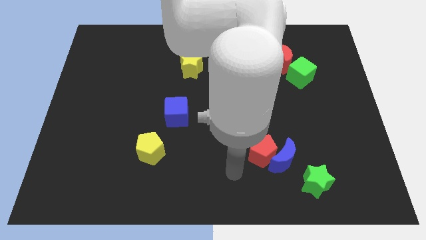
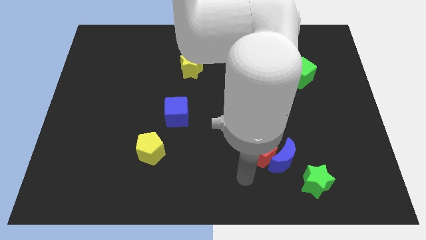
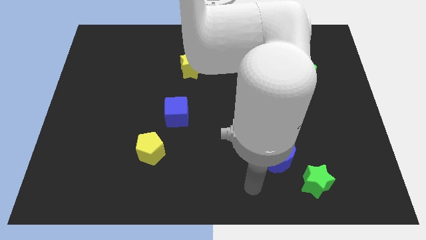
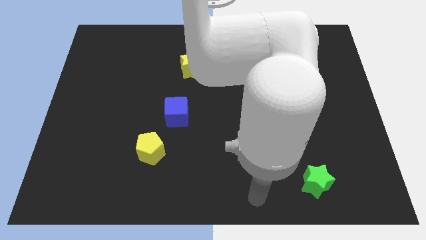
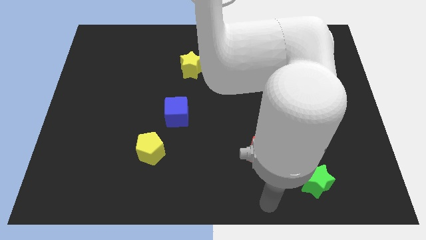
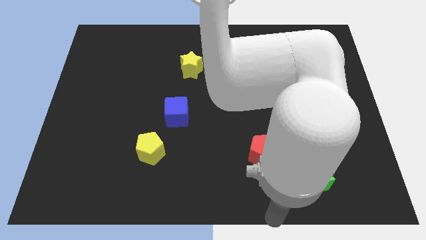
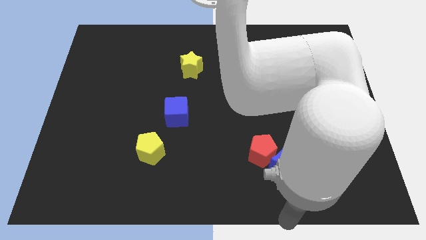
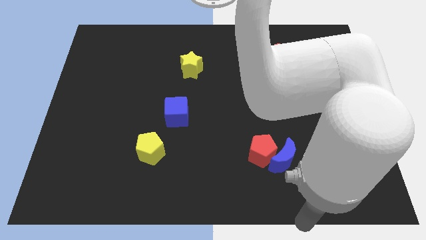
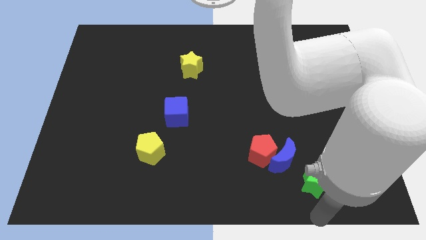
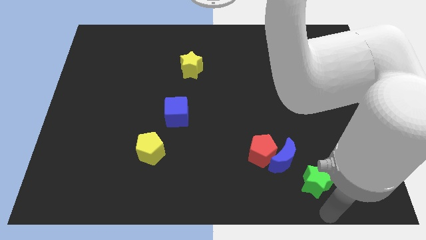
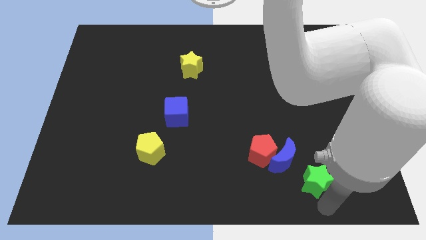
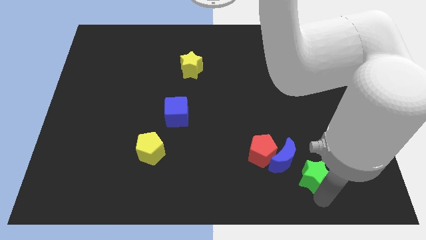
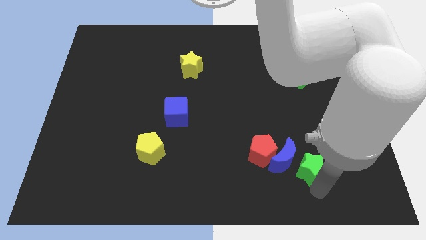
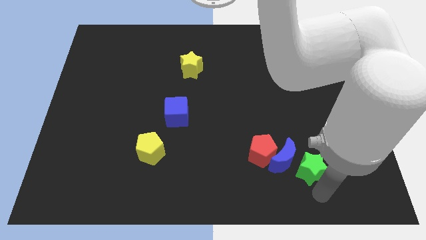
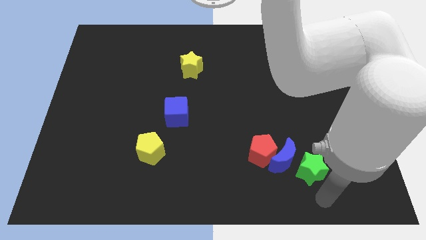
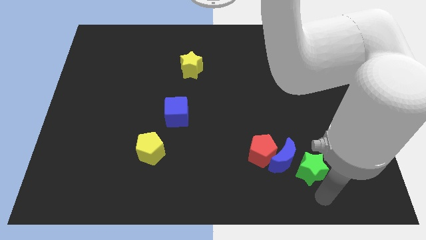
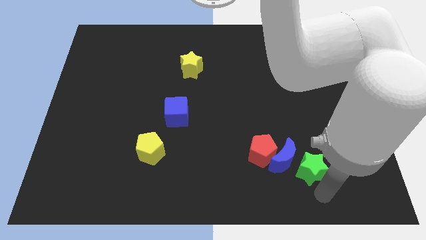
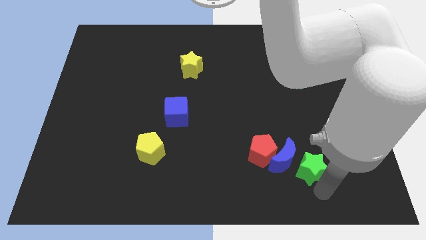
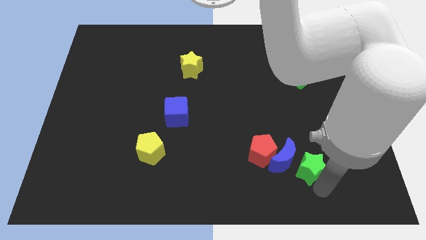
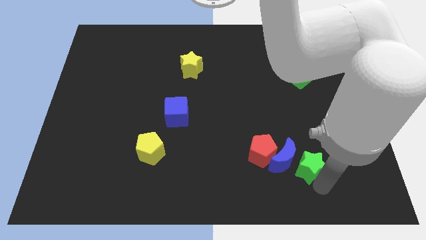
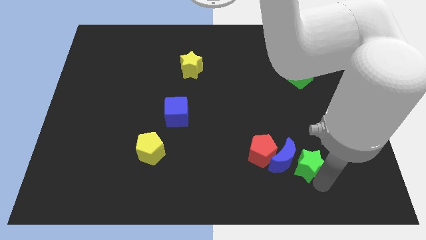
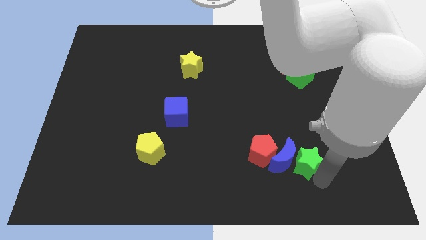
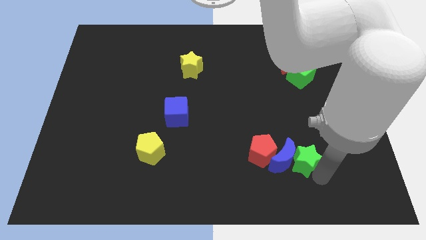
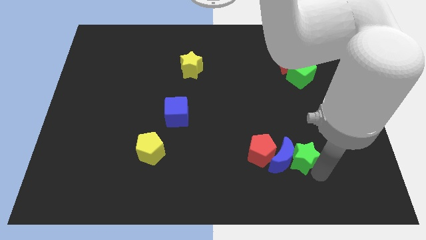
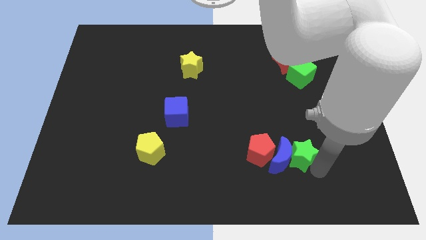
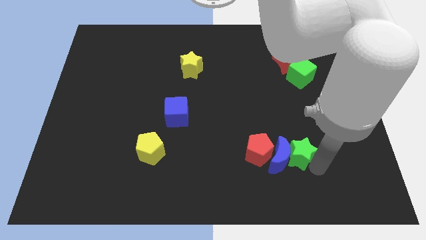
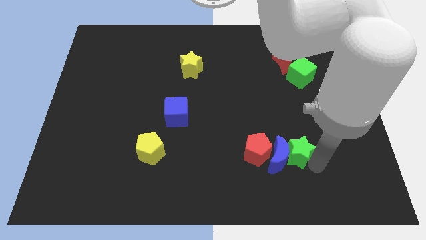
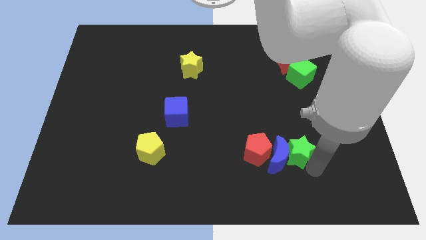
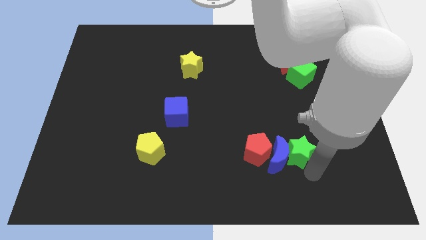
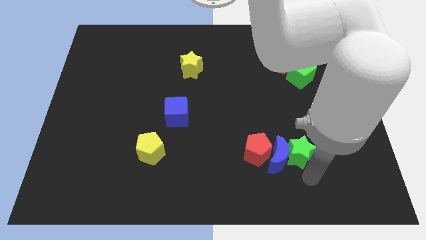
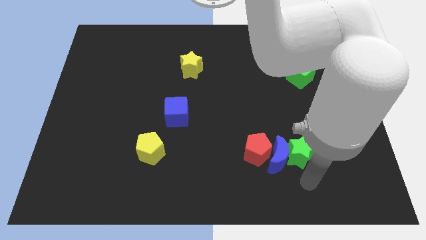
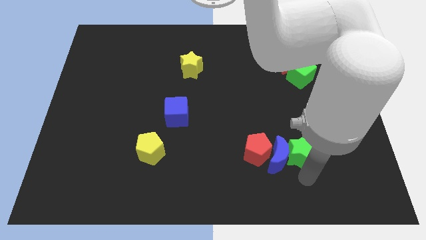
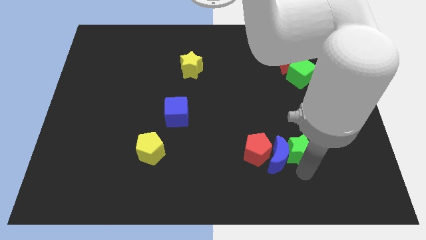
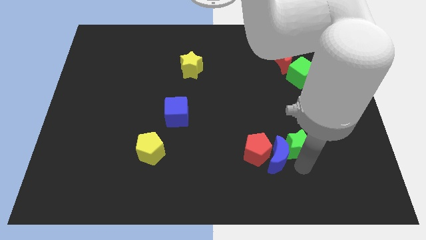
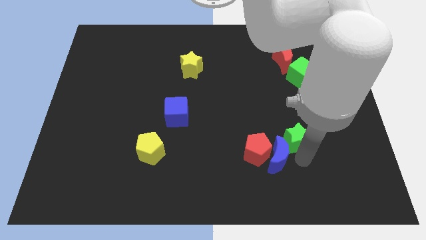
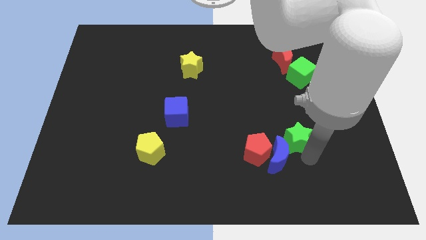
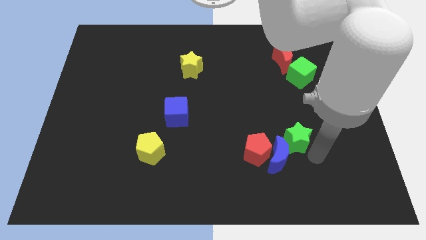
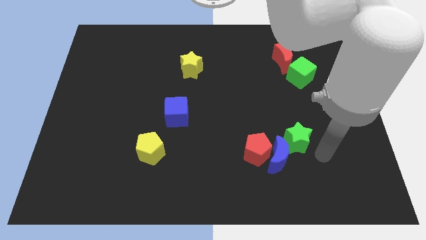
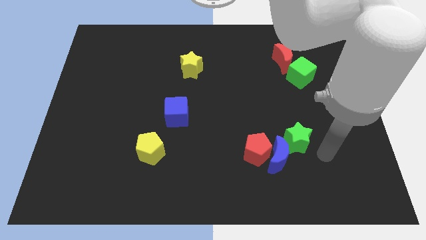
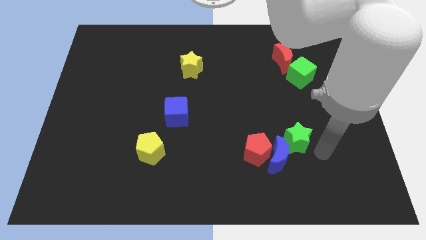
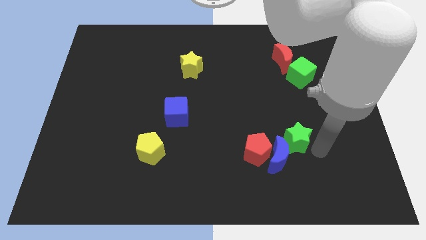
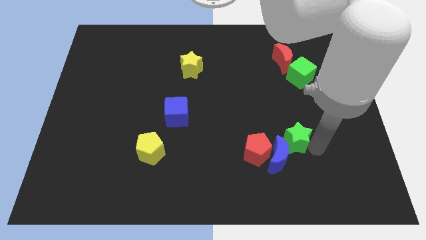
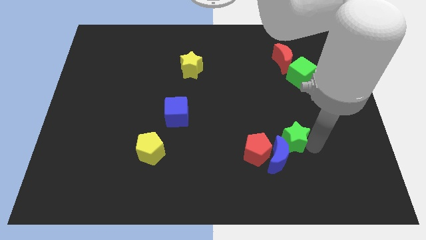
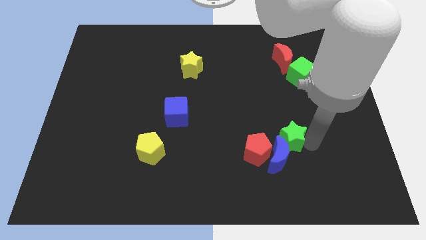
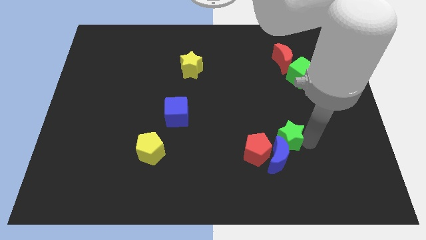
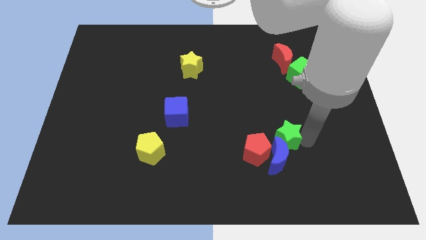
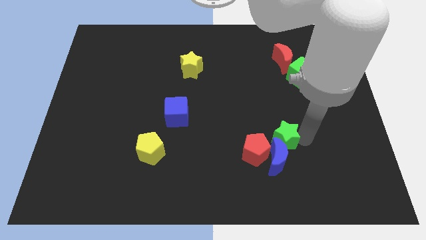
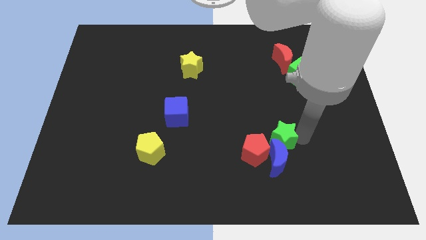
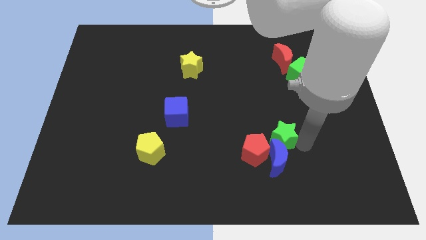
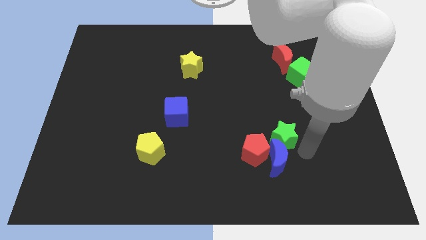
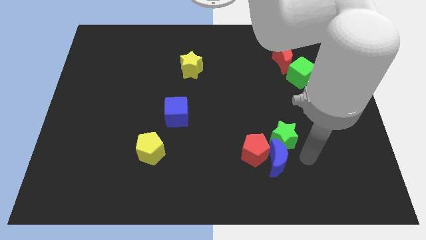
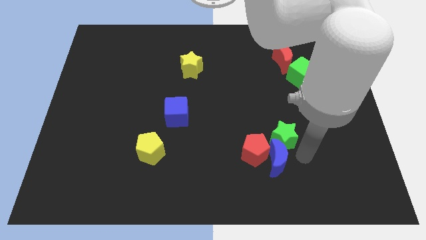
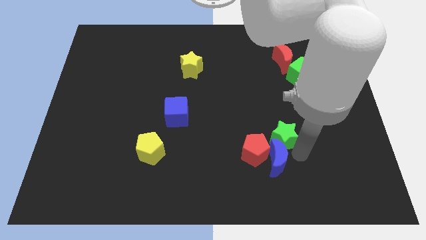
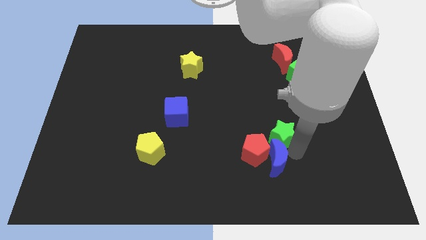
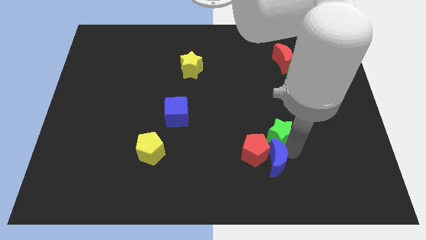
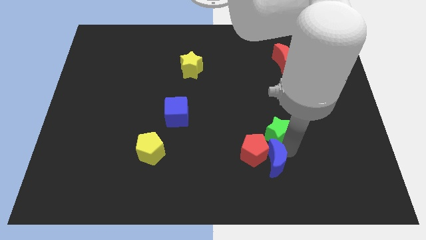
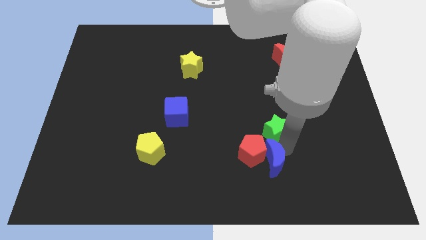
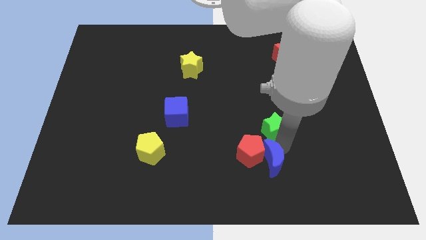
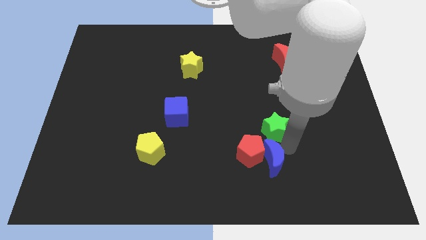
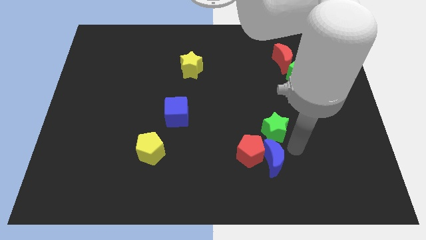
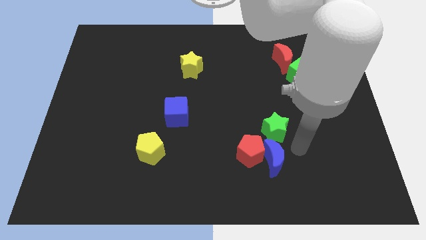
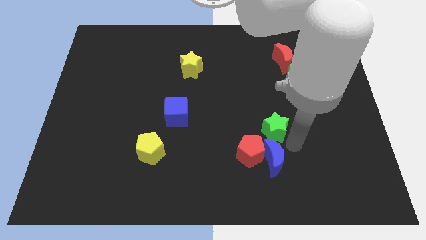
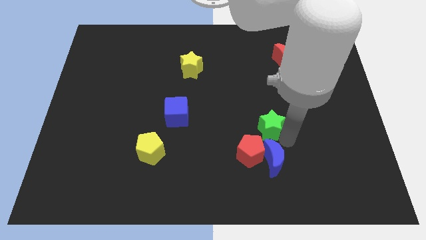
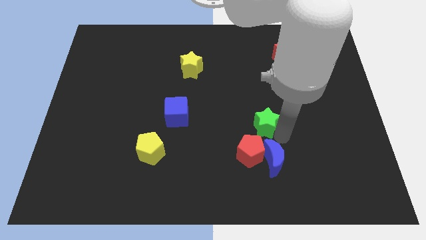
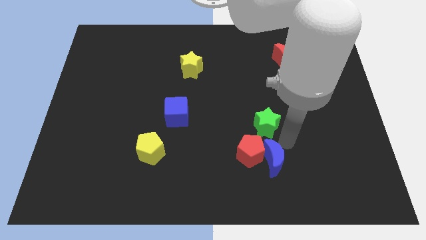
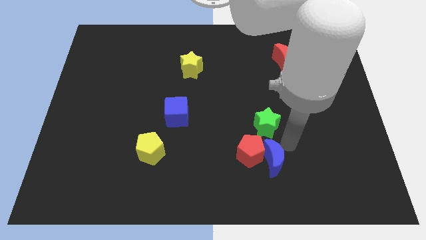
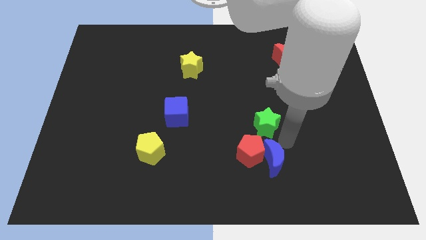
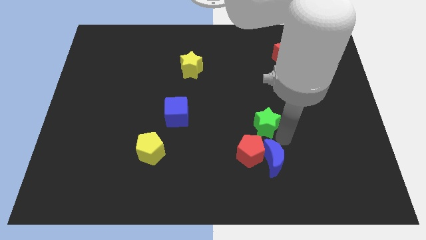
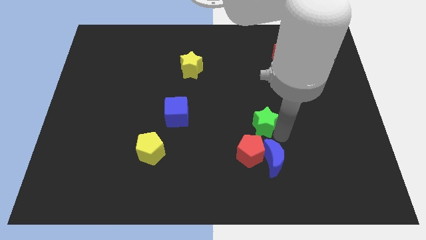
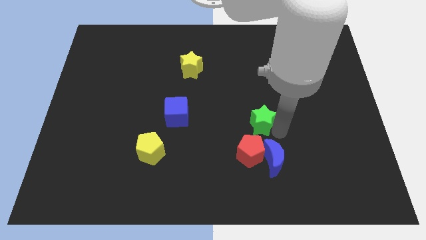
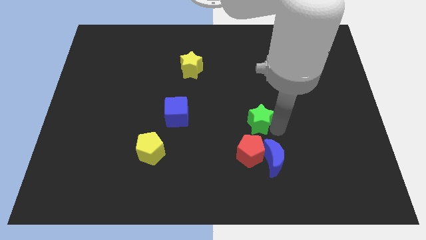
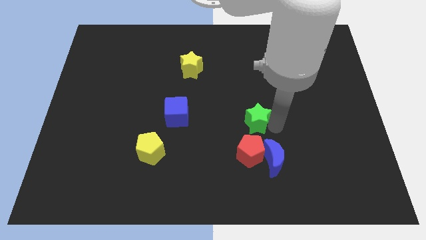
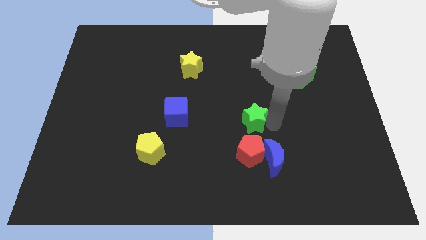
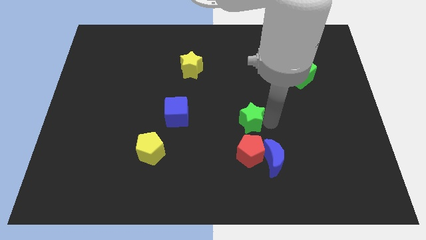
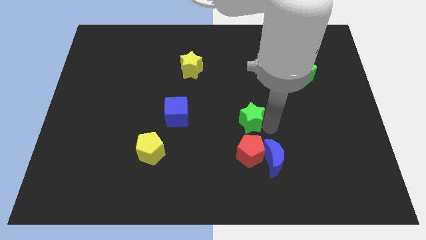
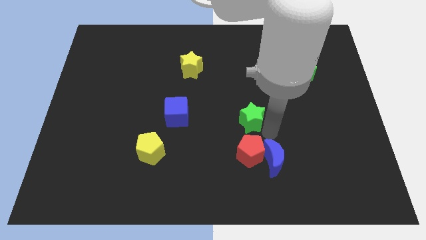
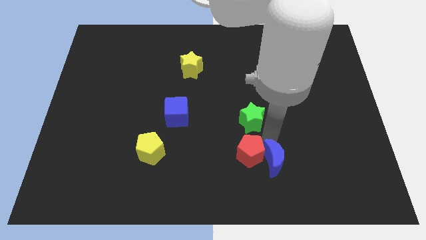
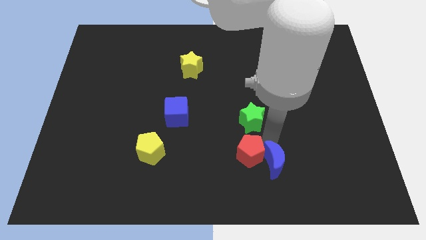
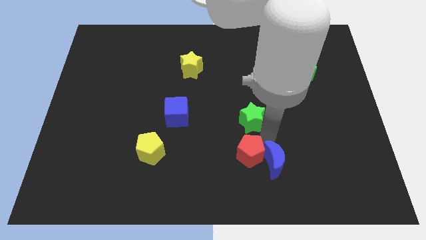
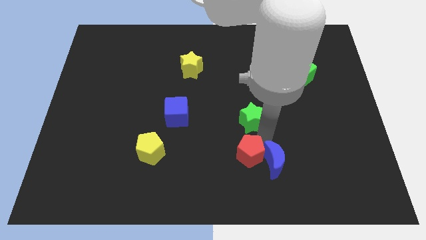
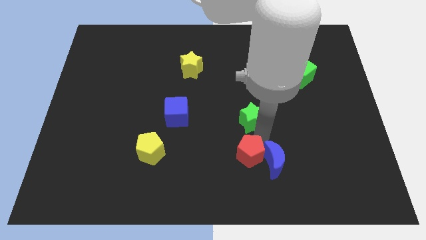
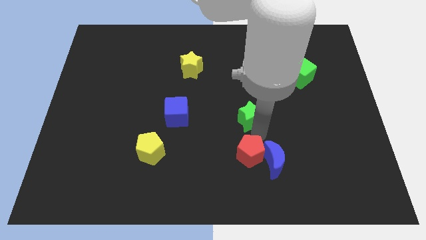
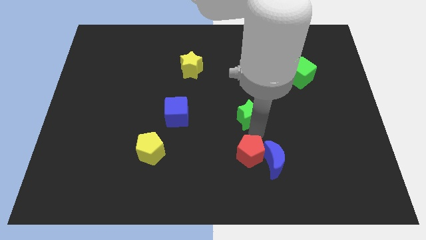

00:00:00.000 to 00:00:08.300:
push the green star up and left diagonally
